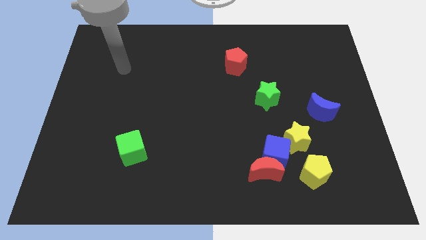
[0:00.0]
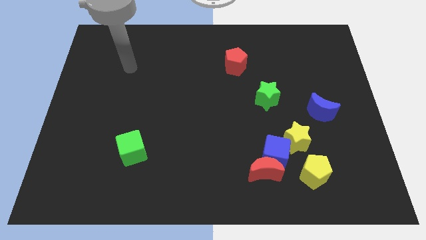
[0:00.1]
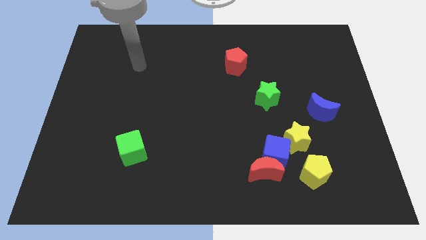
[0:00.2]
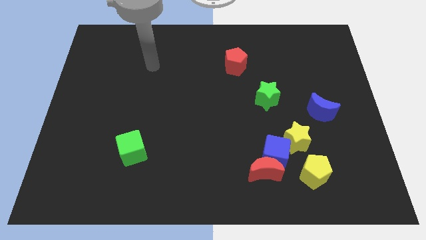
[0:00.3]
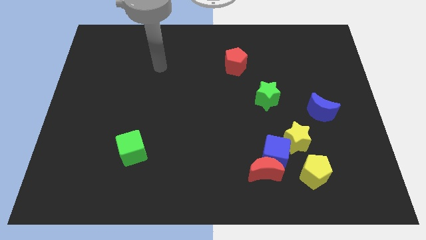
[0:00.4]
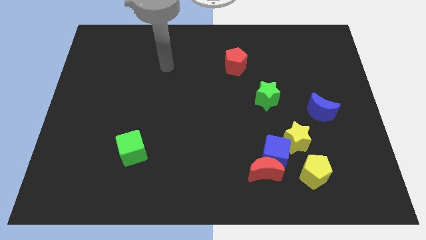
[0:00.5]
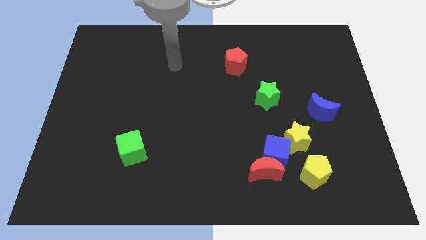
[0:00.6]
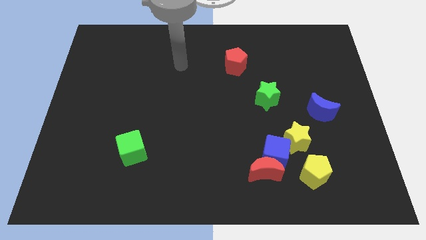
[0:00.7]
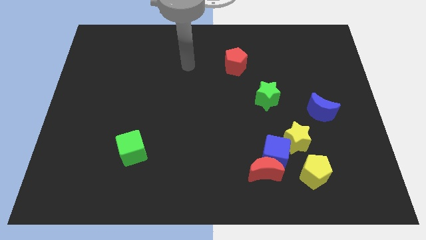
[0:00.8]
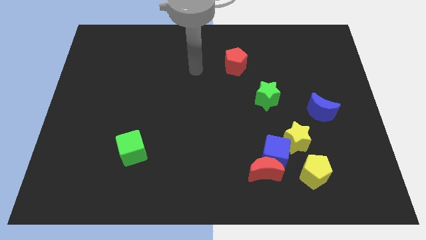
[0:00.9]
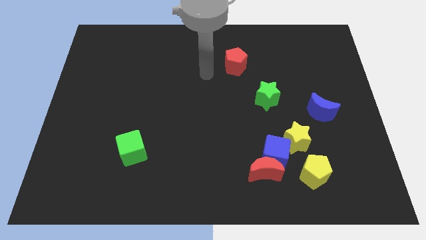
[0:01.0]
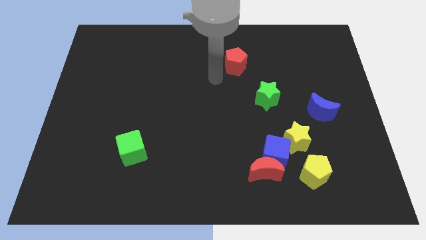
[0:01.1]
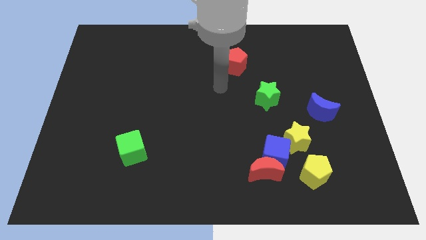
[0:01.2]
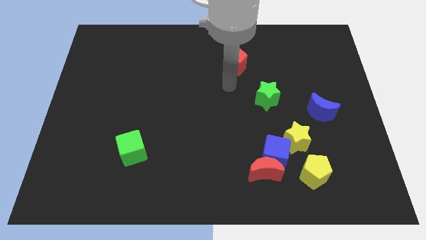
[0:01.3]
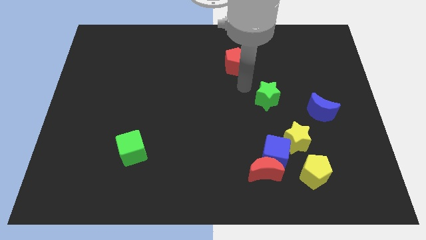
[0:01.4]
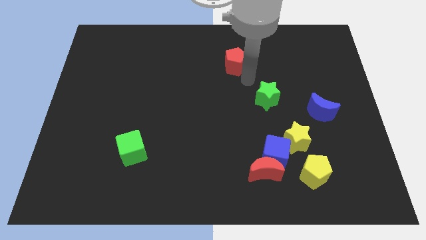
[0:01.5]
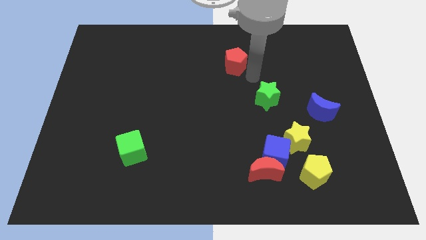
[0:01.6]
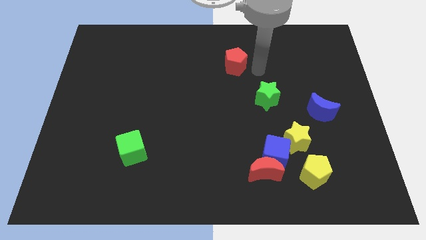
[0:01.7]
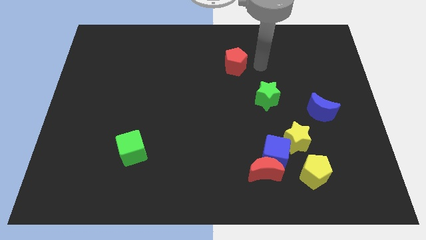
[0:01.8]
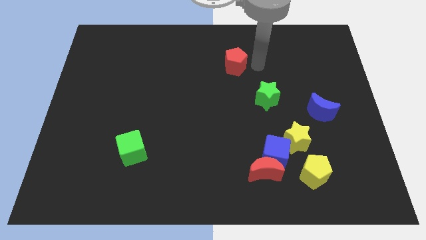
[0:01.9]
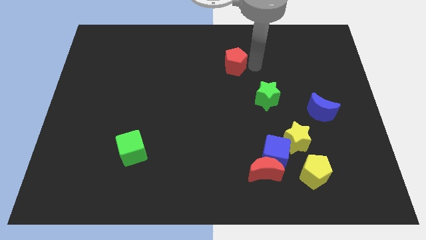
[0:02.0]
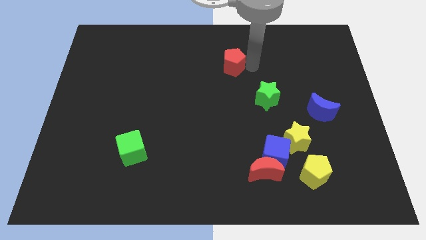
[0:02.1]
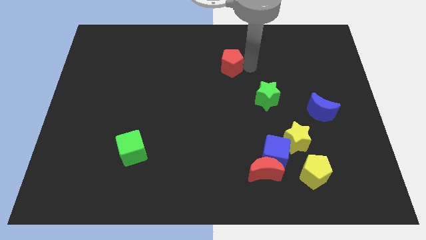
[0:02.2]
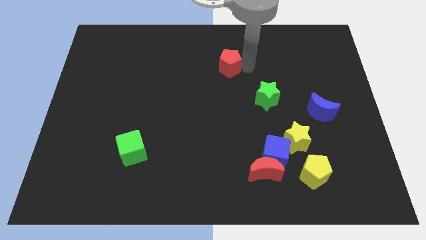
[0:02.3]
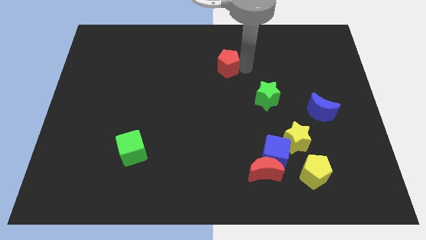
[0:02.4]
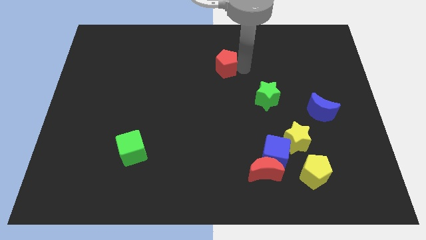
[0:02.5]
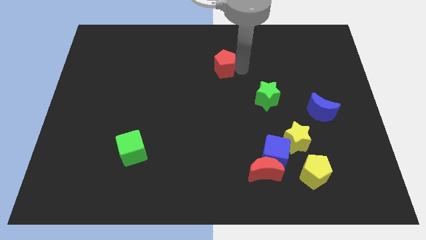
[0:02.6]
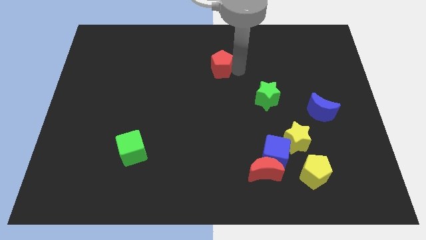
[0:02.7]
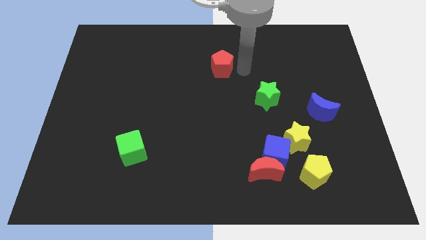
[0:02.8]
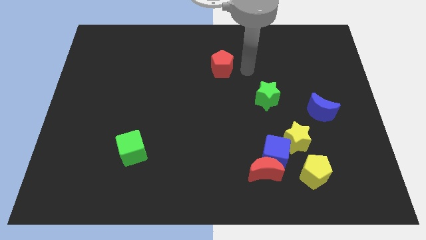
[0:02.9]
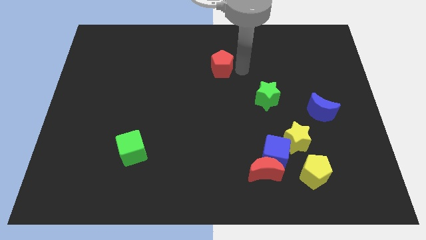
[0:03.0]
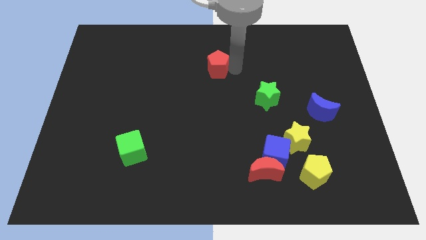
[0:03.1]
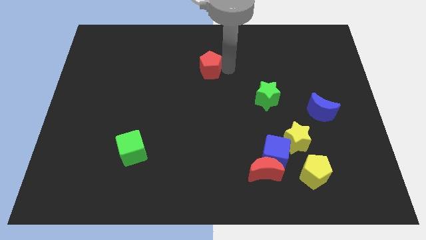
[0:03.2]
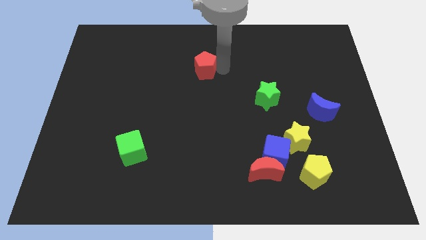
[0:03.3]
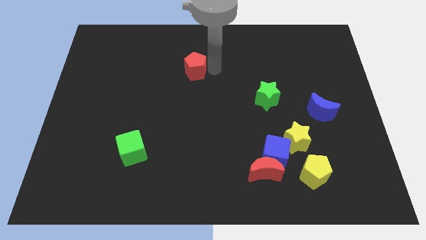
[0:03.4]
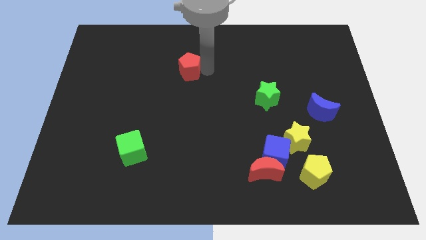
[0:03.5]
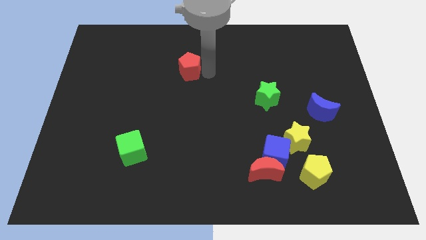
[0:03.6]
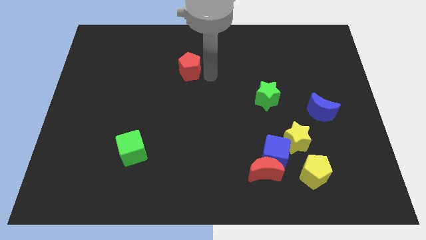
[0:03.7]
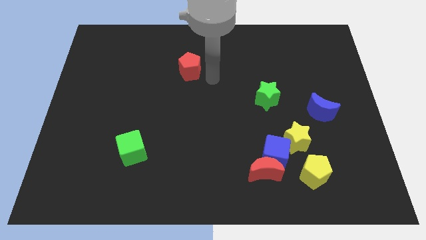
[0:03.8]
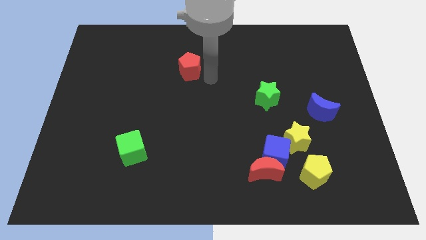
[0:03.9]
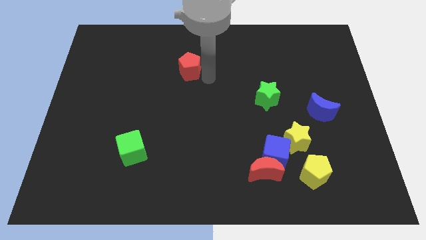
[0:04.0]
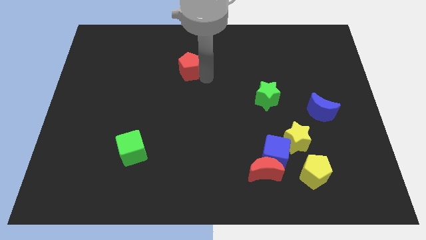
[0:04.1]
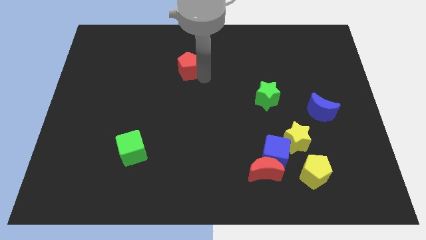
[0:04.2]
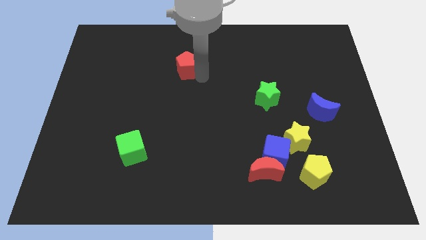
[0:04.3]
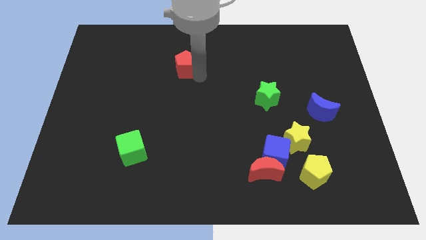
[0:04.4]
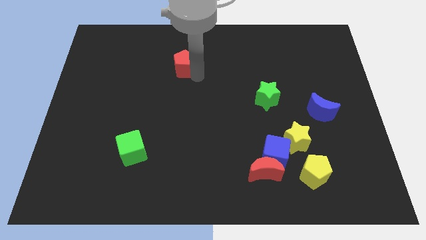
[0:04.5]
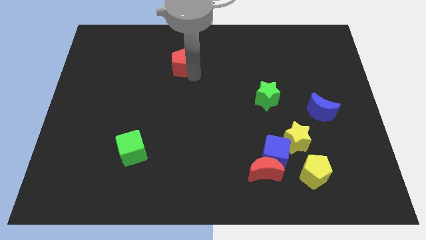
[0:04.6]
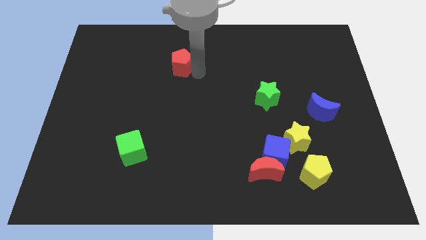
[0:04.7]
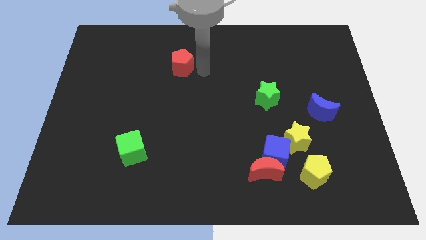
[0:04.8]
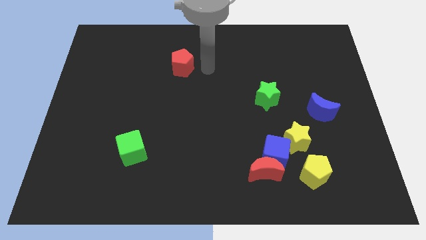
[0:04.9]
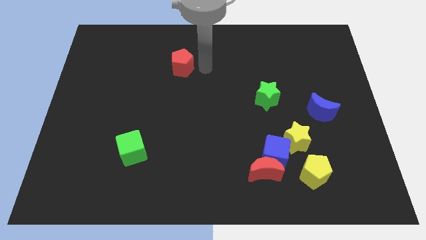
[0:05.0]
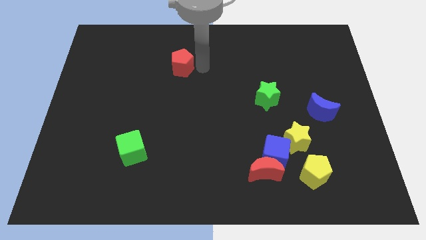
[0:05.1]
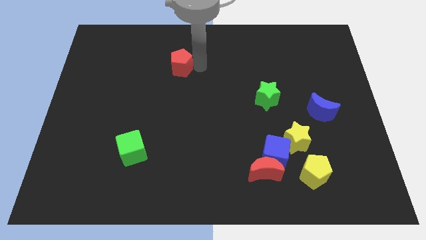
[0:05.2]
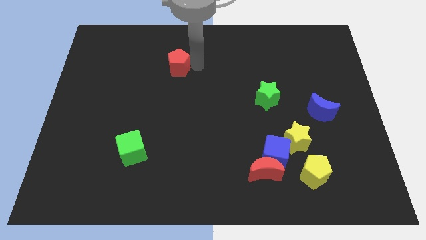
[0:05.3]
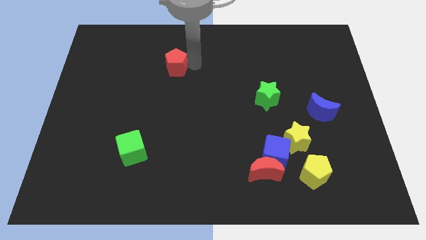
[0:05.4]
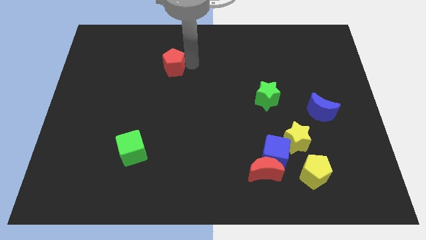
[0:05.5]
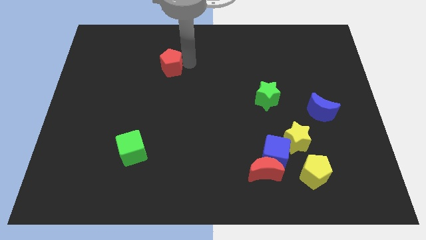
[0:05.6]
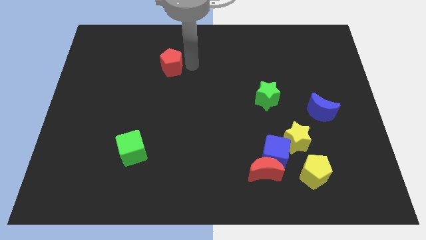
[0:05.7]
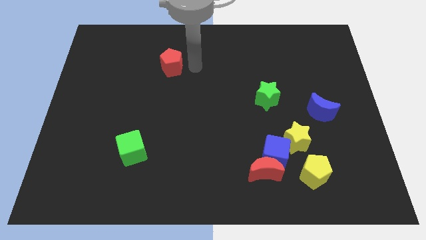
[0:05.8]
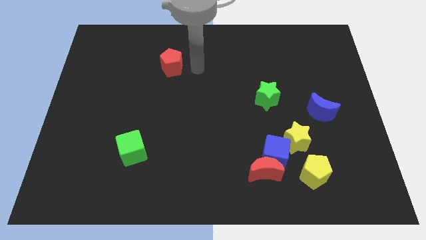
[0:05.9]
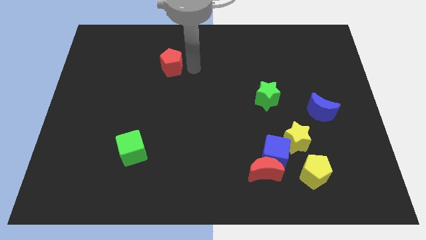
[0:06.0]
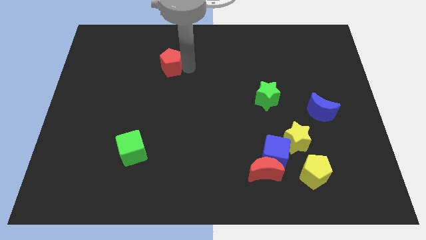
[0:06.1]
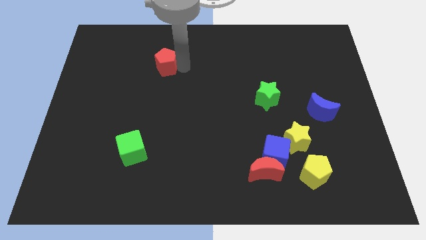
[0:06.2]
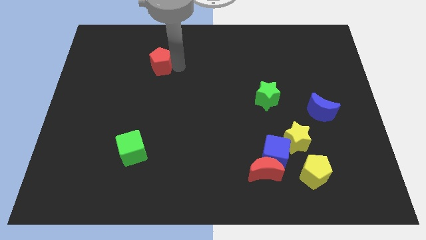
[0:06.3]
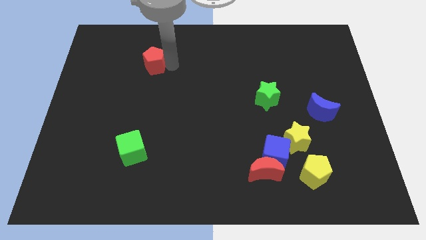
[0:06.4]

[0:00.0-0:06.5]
slide the red pentagon left

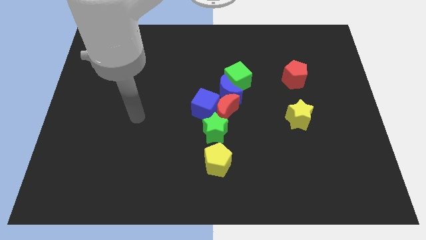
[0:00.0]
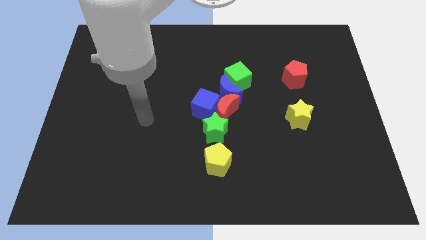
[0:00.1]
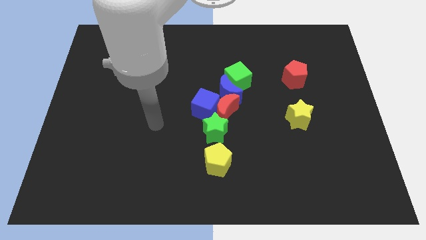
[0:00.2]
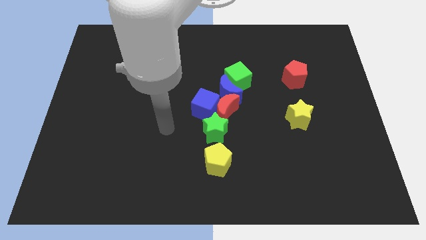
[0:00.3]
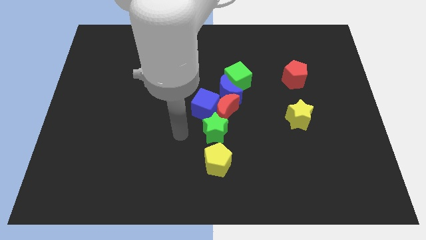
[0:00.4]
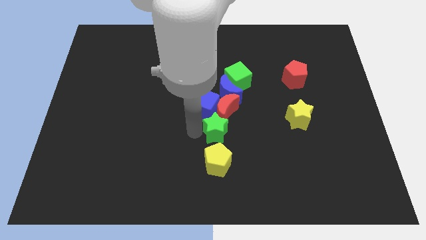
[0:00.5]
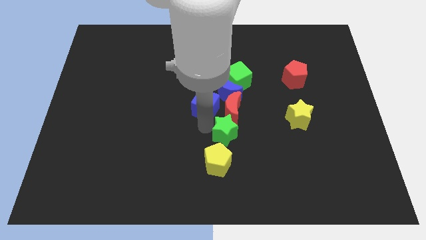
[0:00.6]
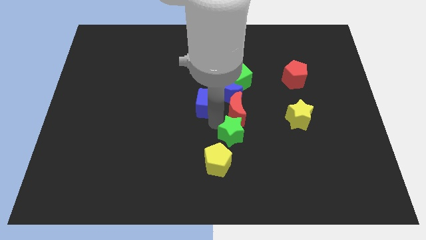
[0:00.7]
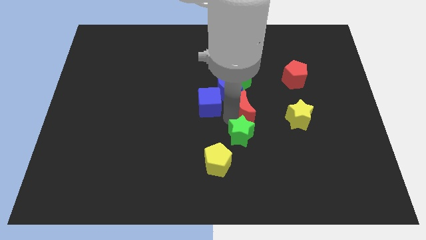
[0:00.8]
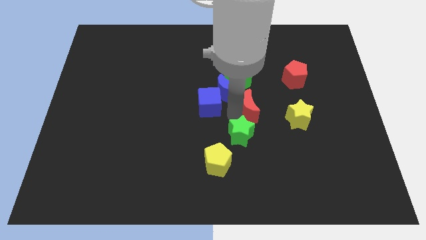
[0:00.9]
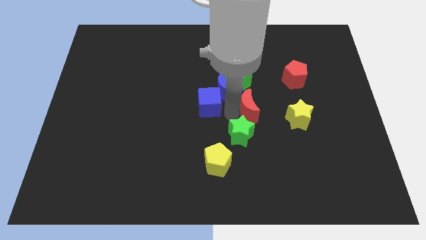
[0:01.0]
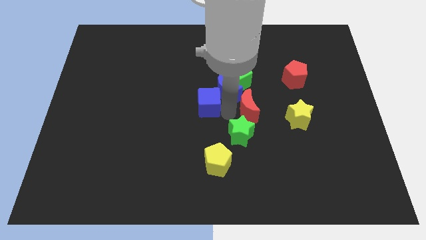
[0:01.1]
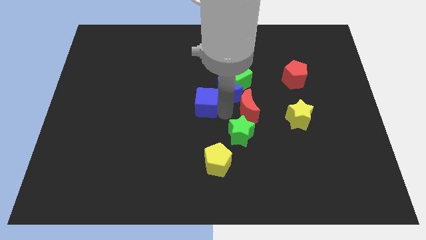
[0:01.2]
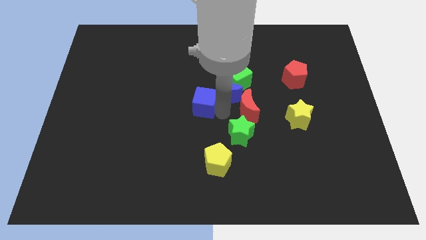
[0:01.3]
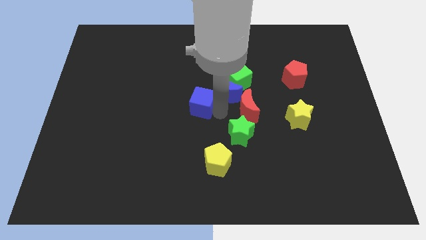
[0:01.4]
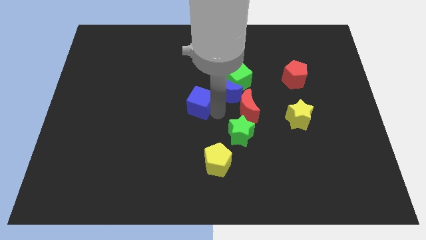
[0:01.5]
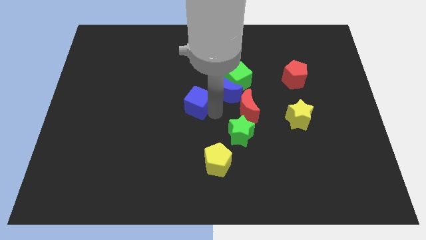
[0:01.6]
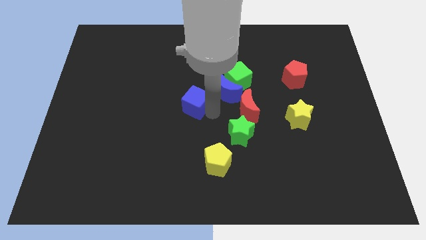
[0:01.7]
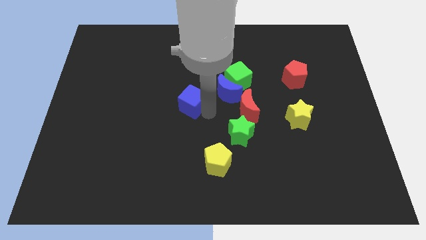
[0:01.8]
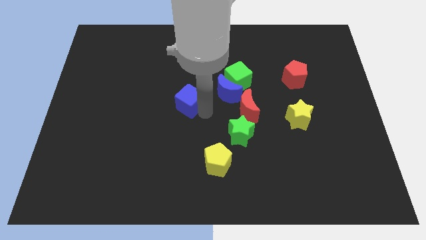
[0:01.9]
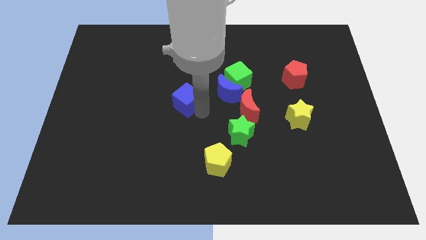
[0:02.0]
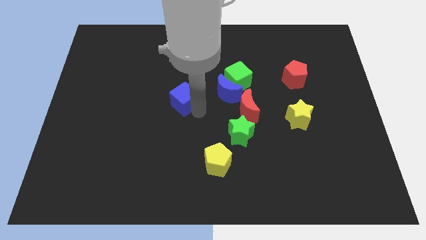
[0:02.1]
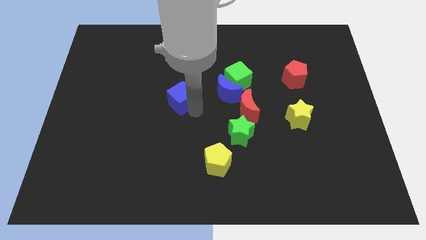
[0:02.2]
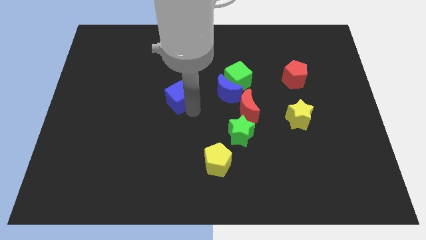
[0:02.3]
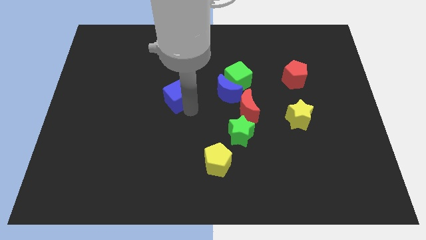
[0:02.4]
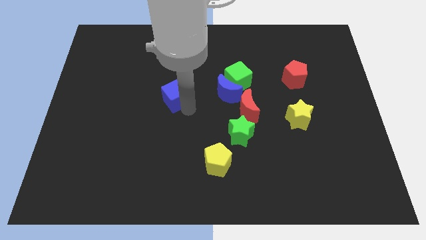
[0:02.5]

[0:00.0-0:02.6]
move the blue cube up and to the left a bit
